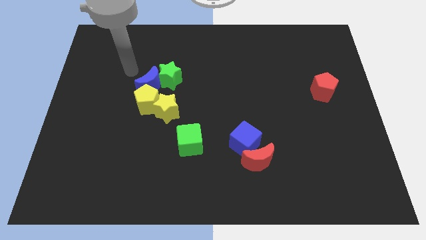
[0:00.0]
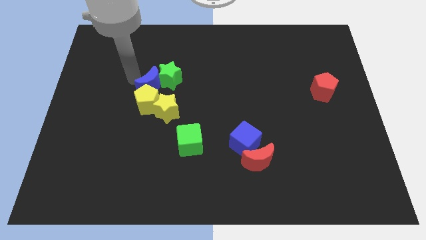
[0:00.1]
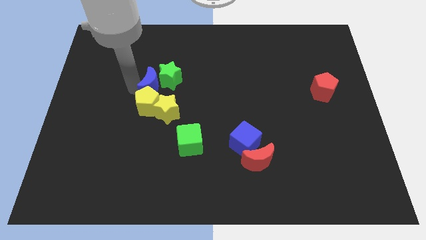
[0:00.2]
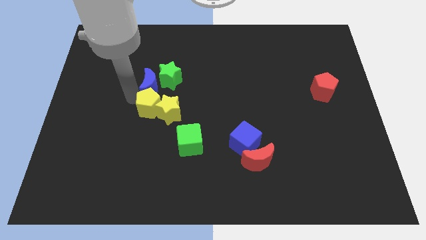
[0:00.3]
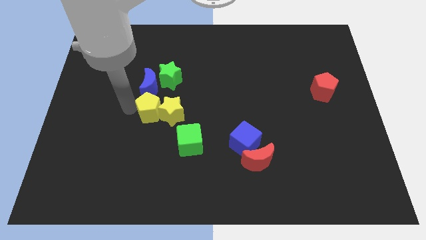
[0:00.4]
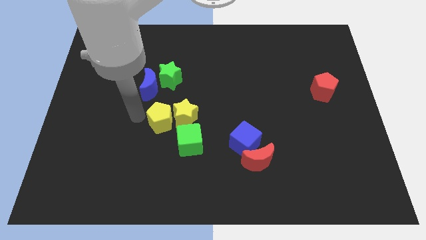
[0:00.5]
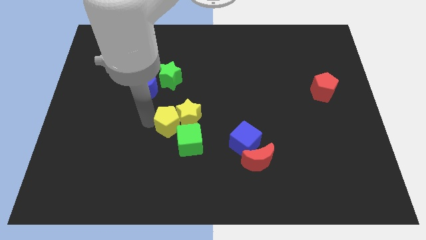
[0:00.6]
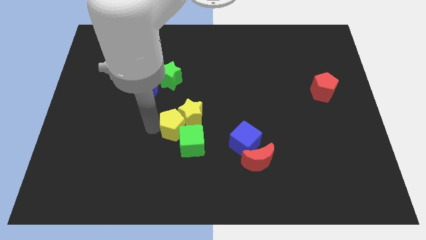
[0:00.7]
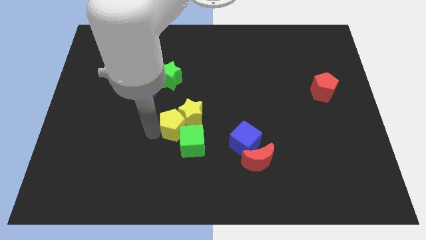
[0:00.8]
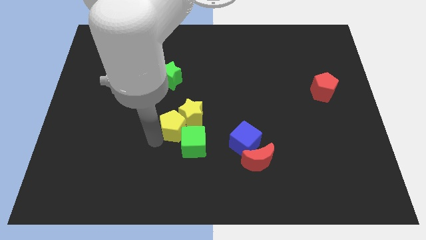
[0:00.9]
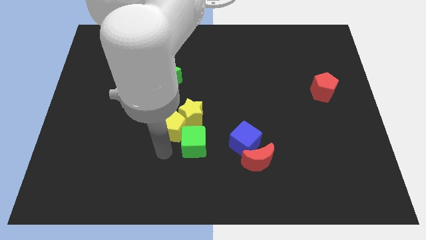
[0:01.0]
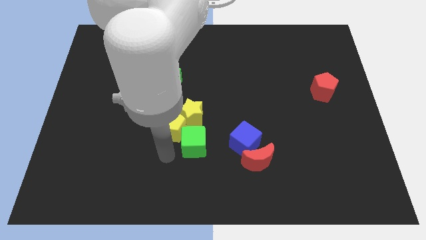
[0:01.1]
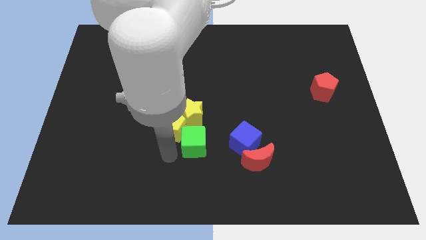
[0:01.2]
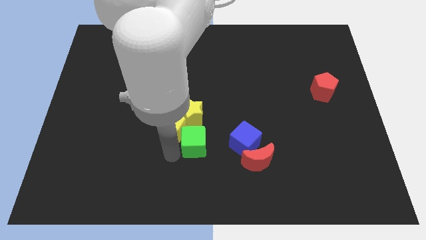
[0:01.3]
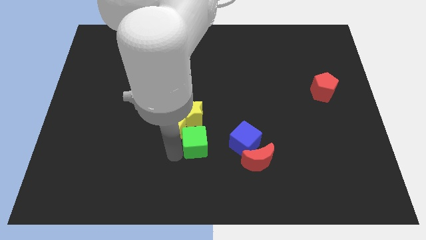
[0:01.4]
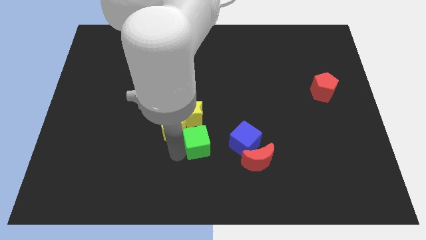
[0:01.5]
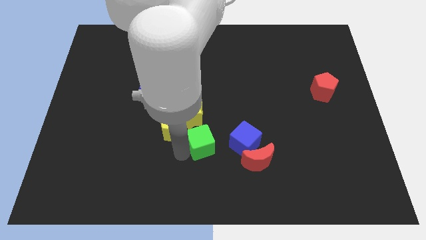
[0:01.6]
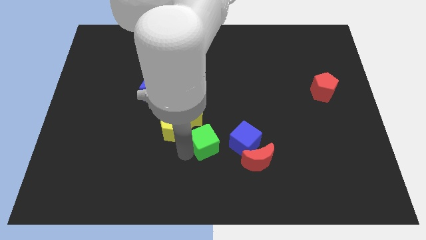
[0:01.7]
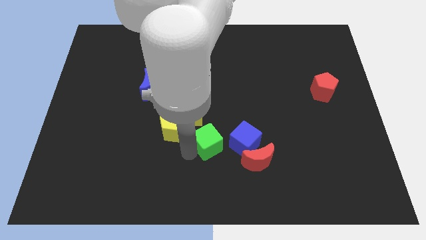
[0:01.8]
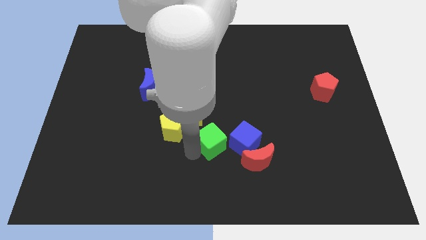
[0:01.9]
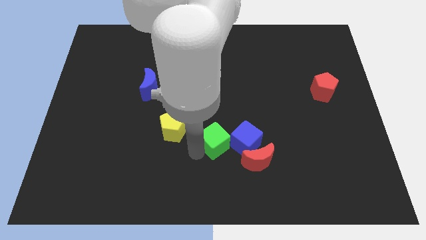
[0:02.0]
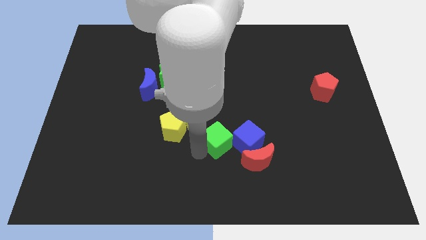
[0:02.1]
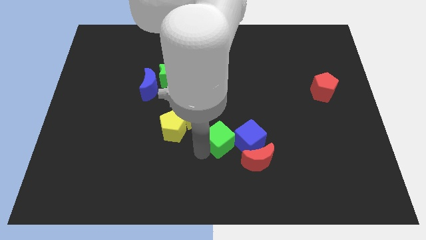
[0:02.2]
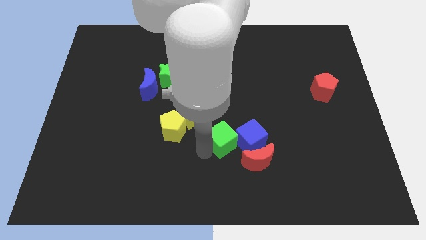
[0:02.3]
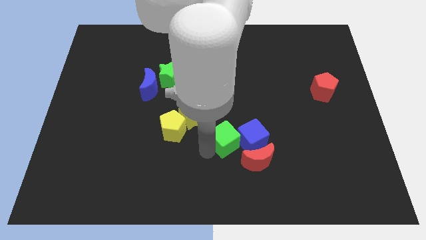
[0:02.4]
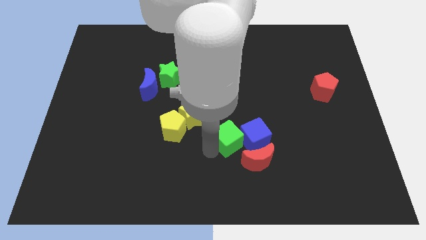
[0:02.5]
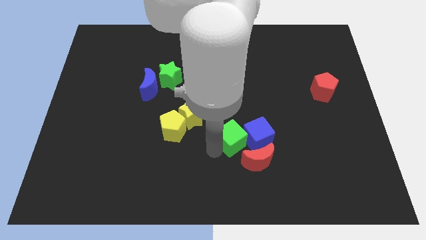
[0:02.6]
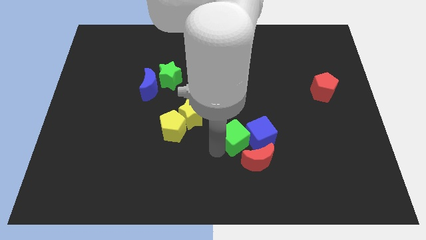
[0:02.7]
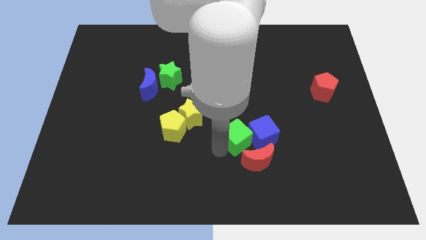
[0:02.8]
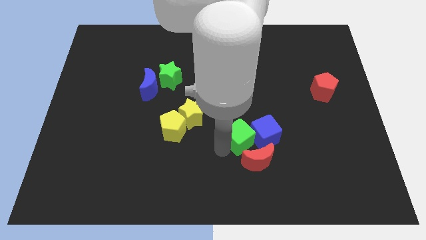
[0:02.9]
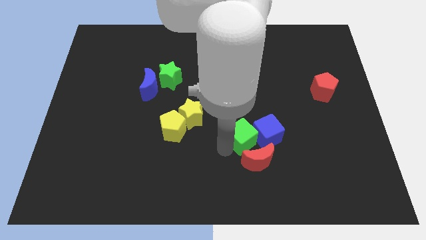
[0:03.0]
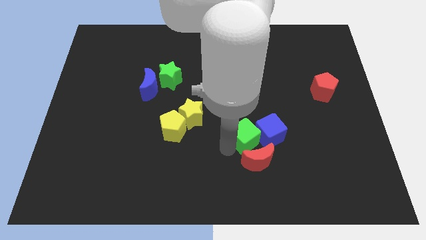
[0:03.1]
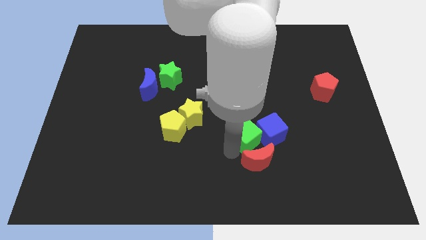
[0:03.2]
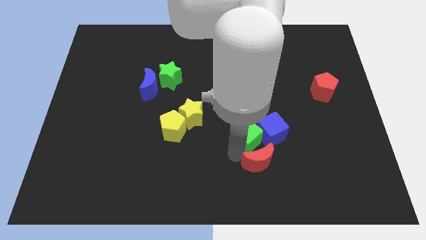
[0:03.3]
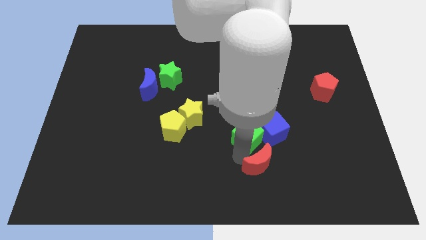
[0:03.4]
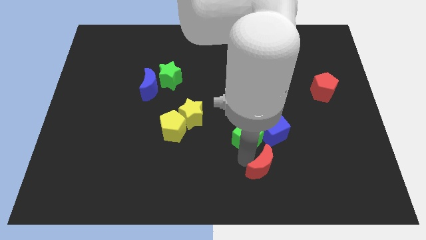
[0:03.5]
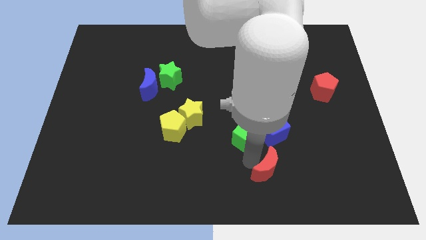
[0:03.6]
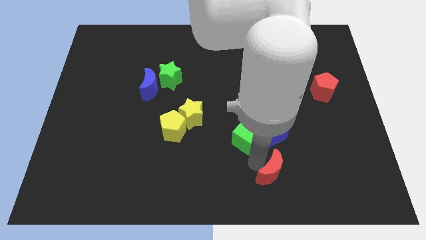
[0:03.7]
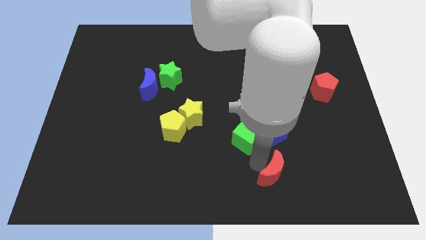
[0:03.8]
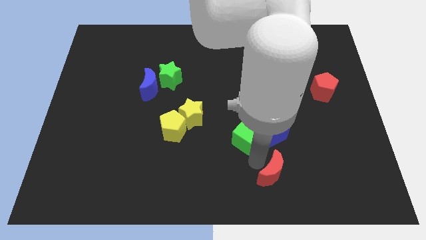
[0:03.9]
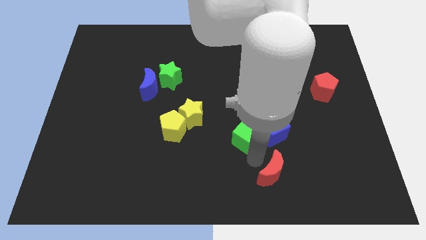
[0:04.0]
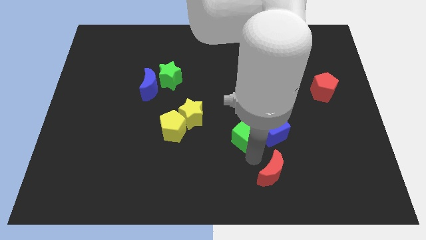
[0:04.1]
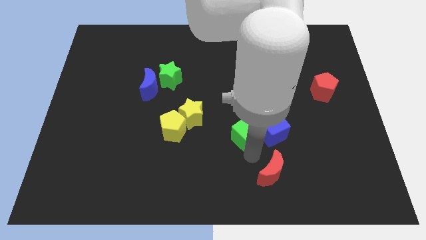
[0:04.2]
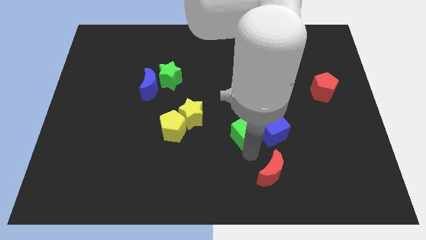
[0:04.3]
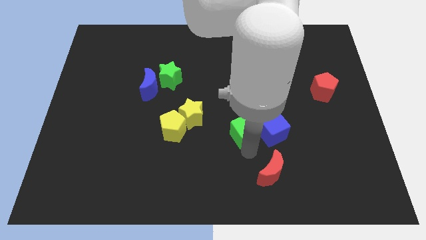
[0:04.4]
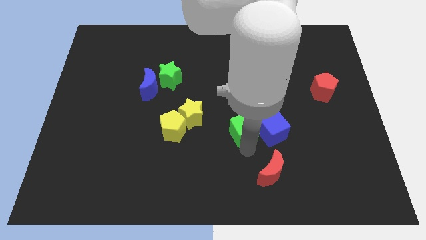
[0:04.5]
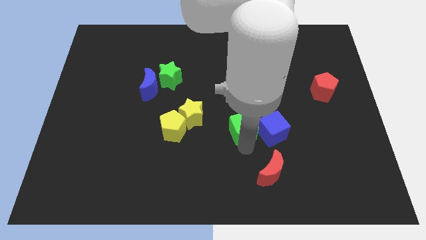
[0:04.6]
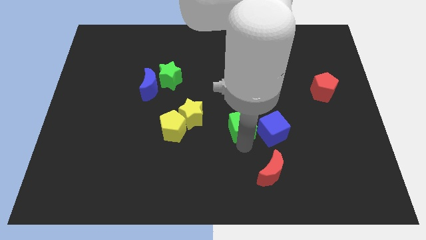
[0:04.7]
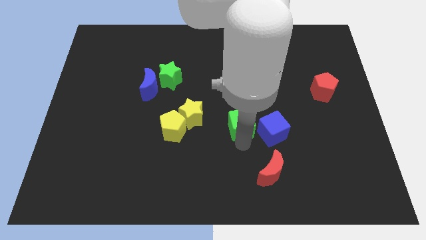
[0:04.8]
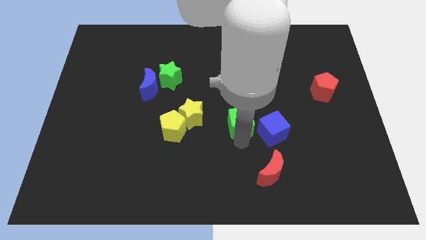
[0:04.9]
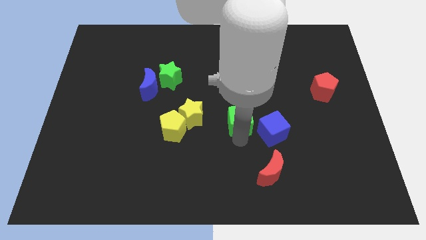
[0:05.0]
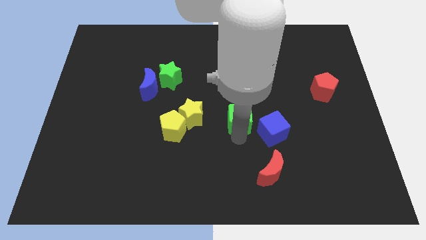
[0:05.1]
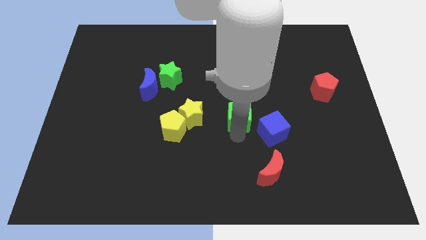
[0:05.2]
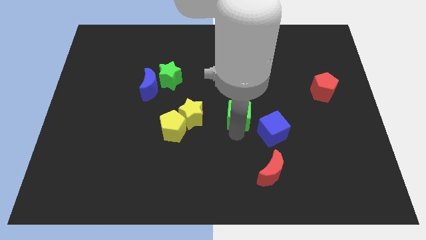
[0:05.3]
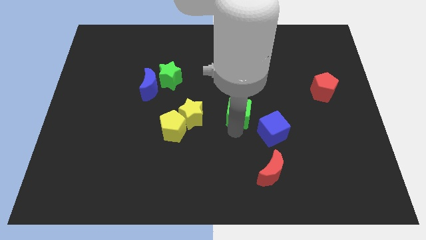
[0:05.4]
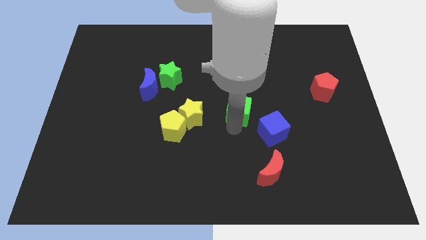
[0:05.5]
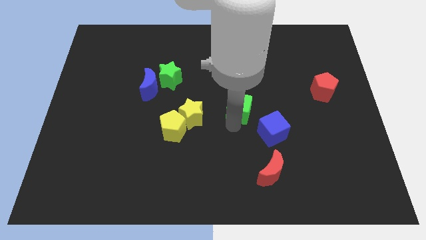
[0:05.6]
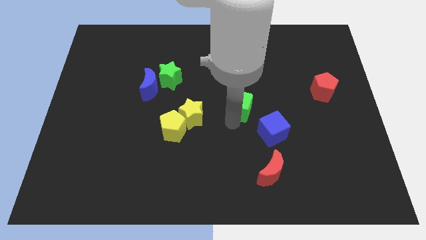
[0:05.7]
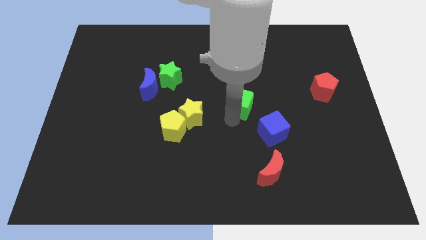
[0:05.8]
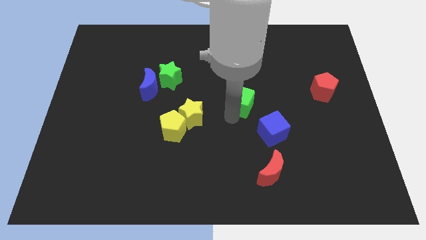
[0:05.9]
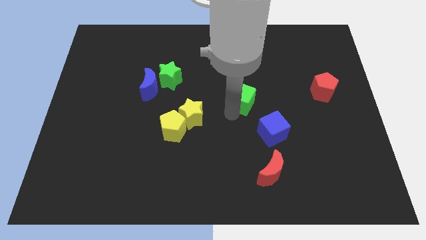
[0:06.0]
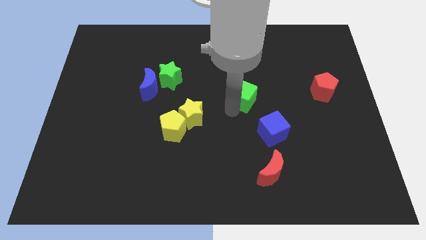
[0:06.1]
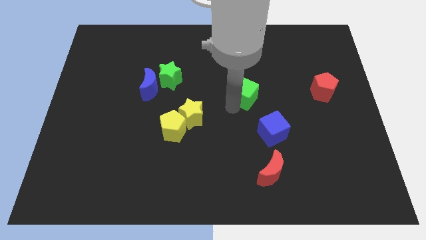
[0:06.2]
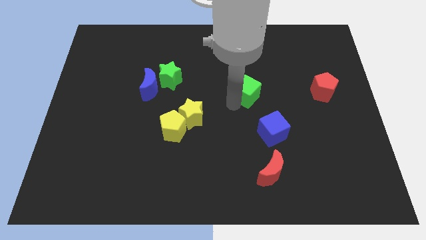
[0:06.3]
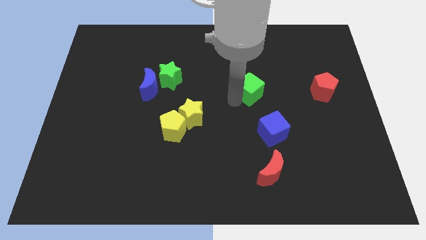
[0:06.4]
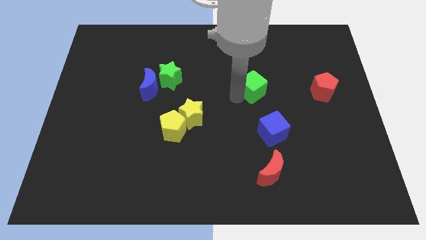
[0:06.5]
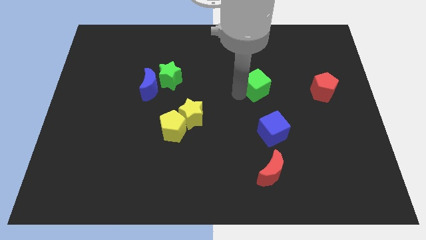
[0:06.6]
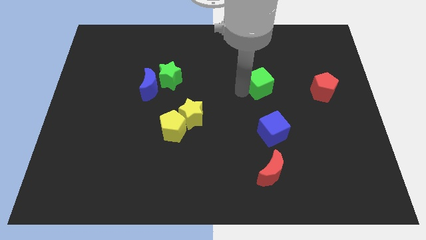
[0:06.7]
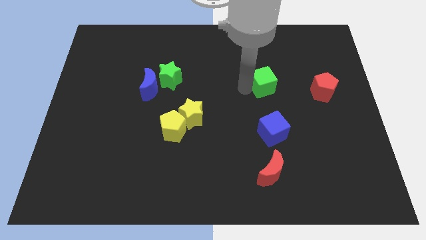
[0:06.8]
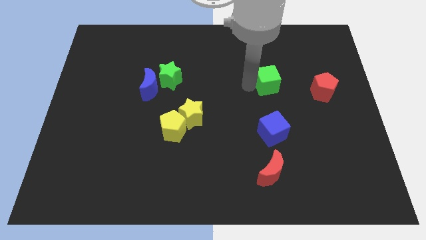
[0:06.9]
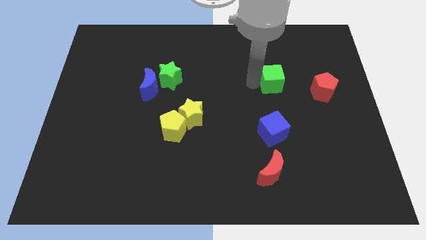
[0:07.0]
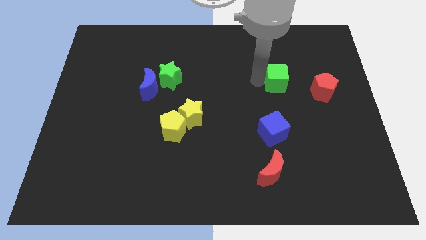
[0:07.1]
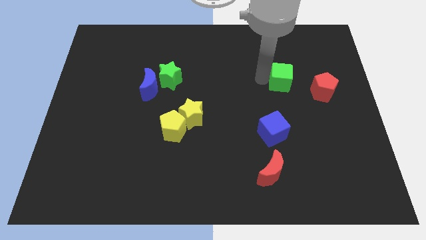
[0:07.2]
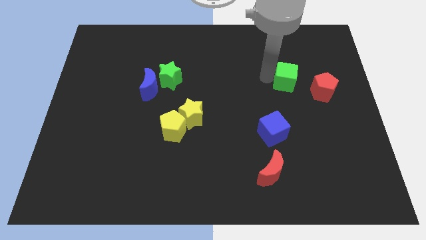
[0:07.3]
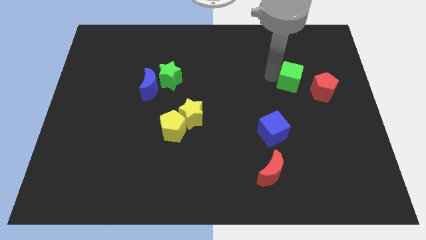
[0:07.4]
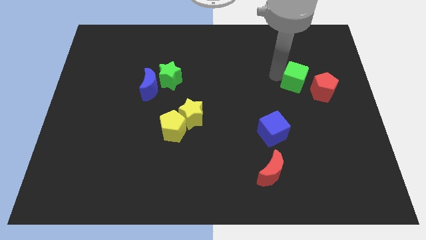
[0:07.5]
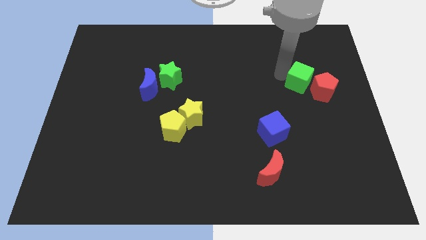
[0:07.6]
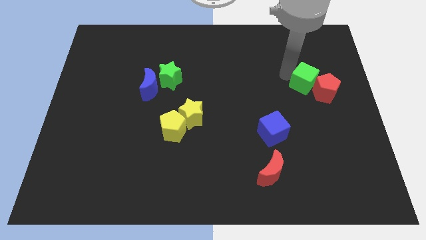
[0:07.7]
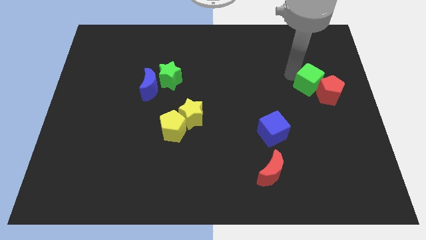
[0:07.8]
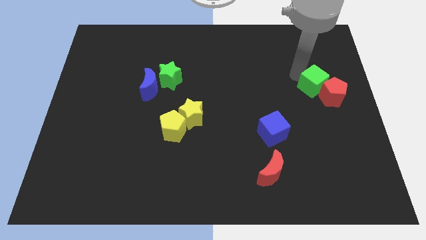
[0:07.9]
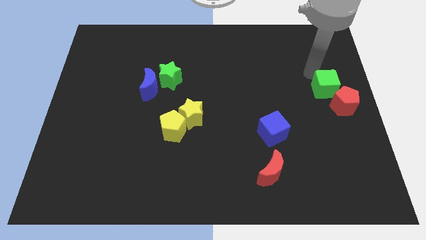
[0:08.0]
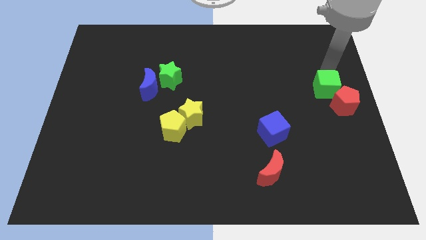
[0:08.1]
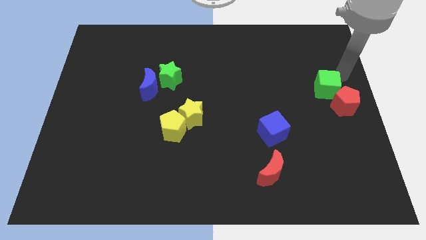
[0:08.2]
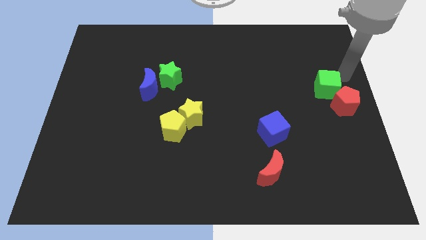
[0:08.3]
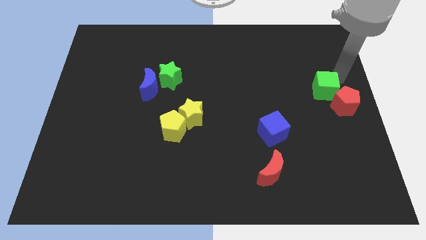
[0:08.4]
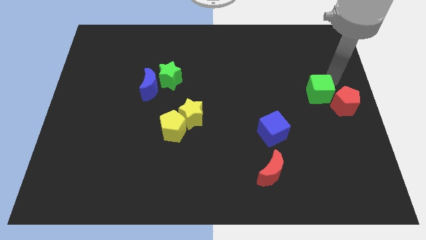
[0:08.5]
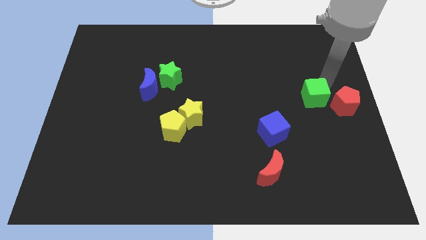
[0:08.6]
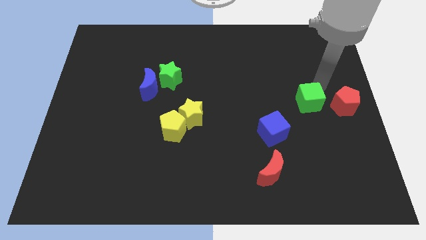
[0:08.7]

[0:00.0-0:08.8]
push the green cube to the right
